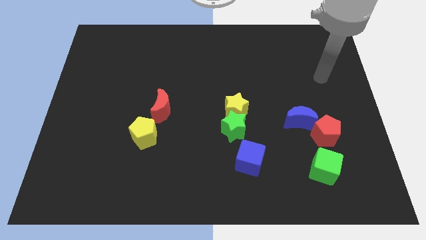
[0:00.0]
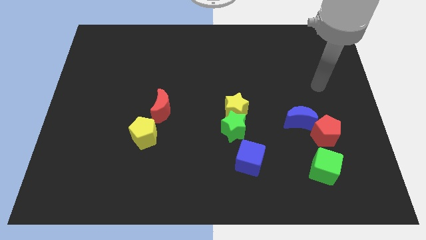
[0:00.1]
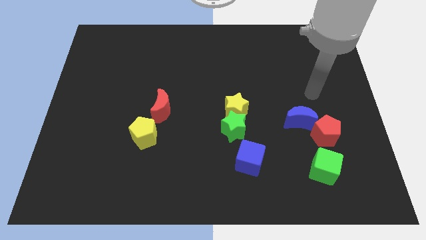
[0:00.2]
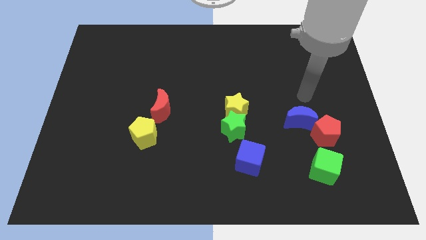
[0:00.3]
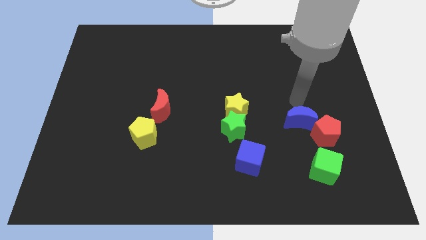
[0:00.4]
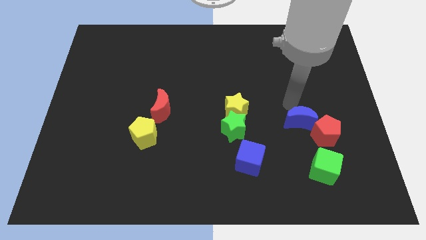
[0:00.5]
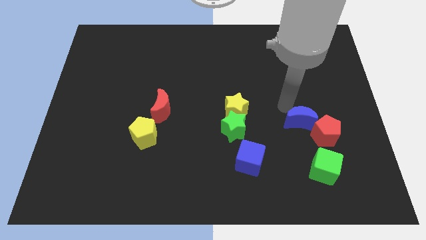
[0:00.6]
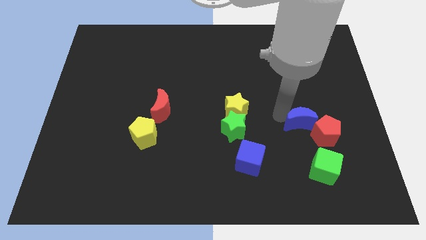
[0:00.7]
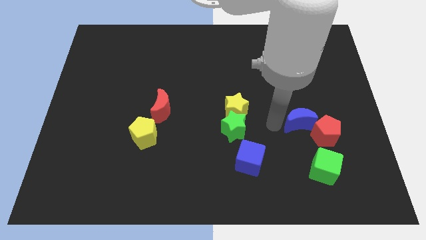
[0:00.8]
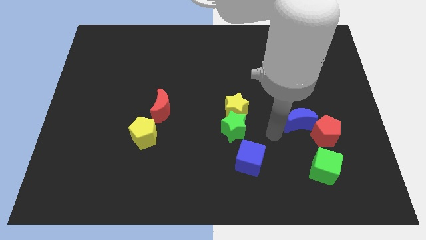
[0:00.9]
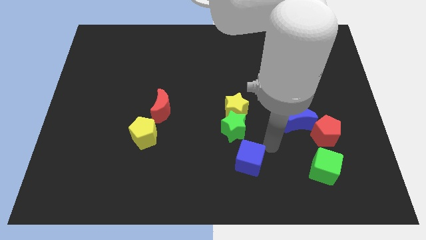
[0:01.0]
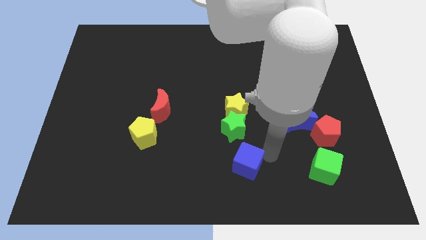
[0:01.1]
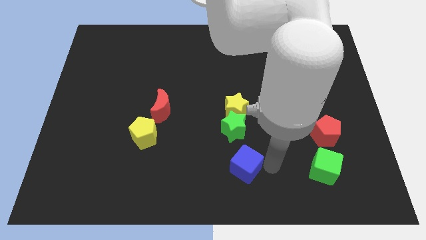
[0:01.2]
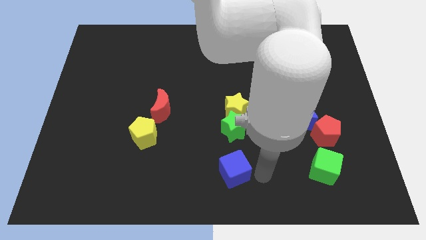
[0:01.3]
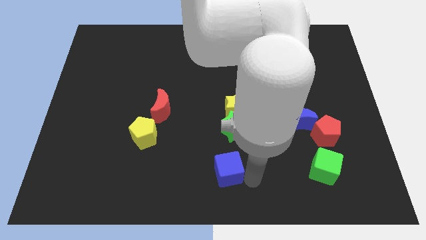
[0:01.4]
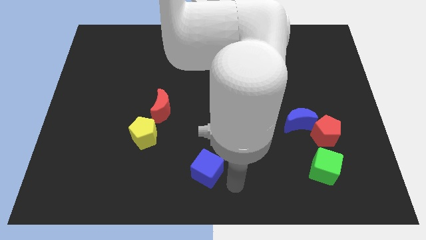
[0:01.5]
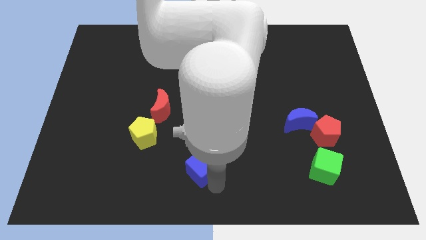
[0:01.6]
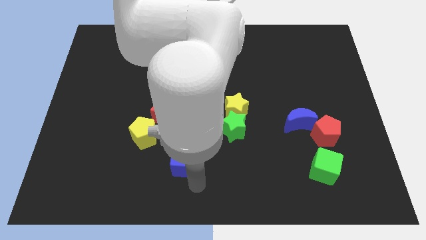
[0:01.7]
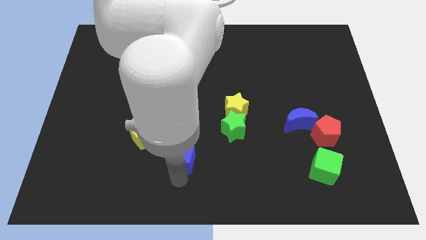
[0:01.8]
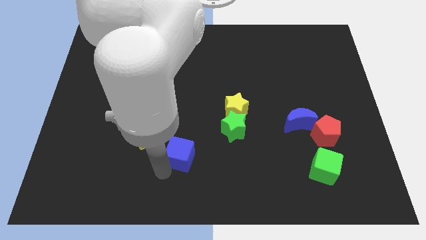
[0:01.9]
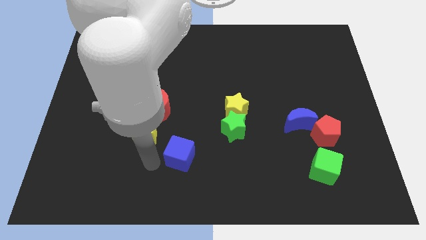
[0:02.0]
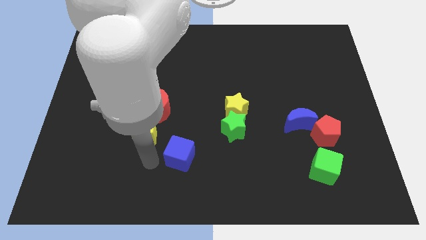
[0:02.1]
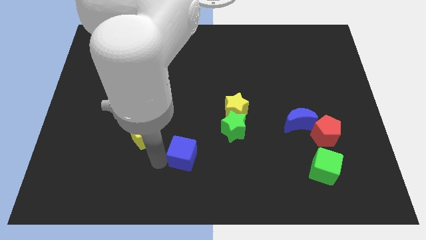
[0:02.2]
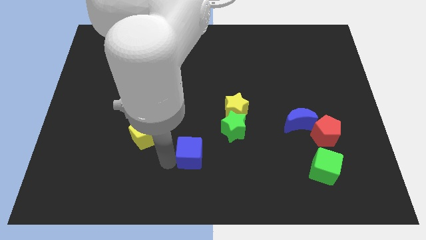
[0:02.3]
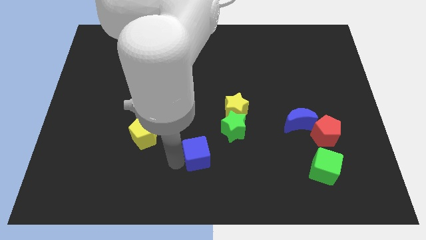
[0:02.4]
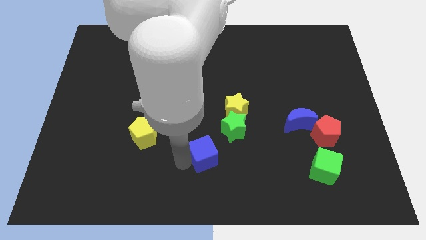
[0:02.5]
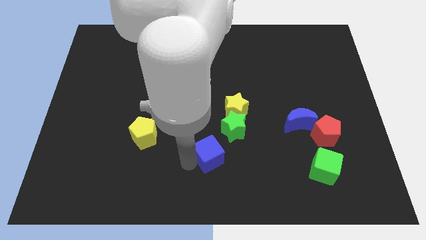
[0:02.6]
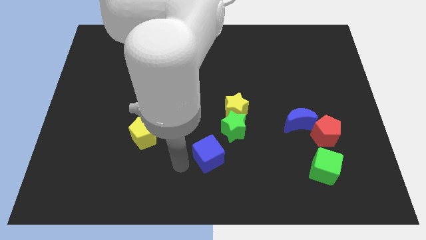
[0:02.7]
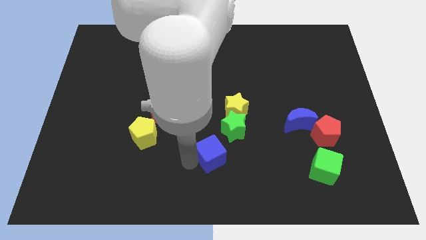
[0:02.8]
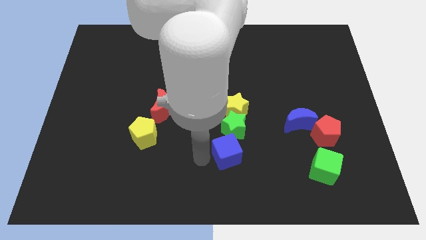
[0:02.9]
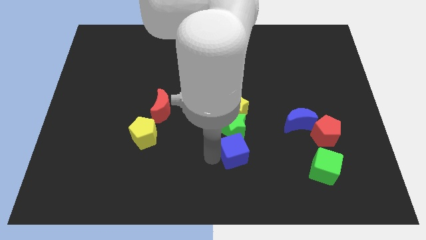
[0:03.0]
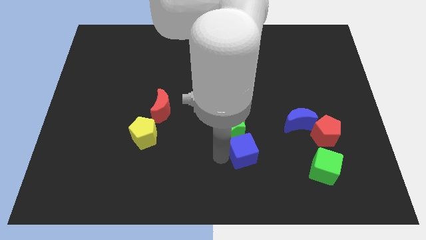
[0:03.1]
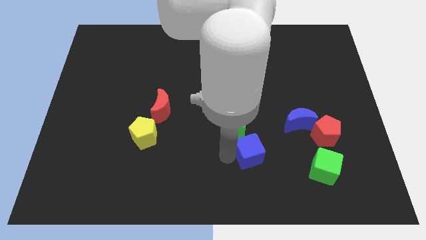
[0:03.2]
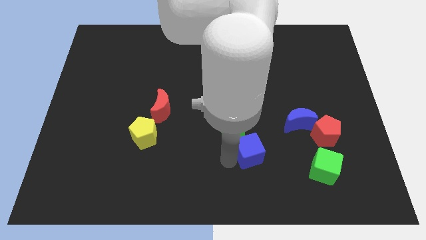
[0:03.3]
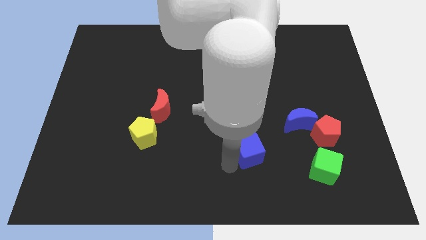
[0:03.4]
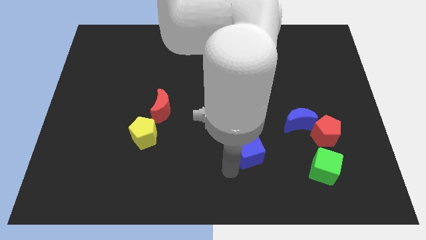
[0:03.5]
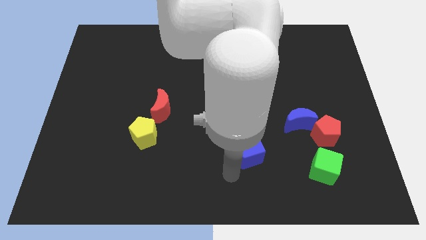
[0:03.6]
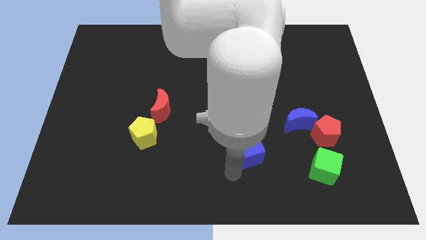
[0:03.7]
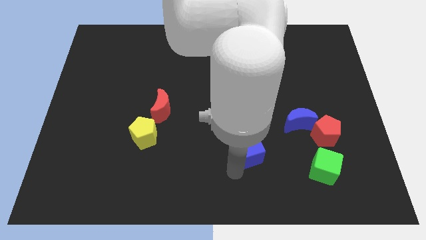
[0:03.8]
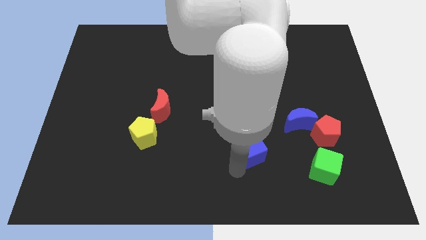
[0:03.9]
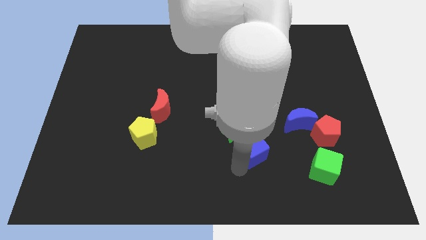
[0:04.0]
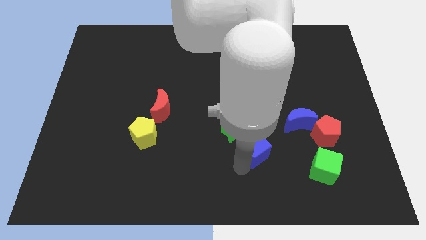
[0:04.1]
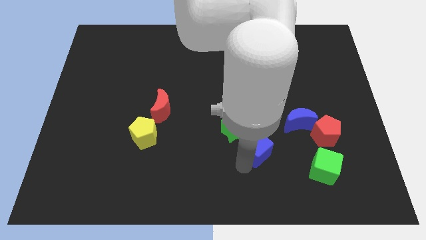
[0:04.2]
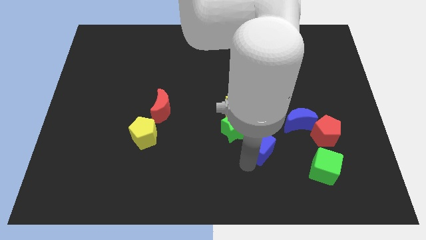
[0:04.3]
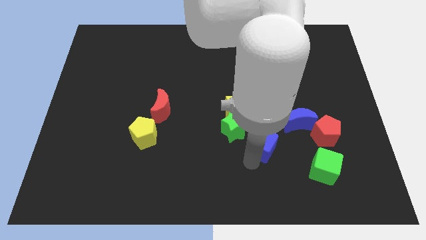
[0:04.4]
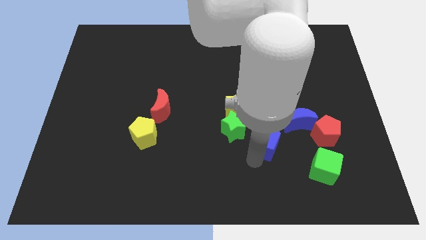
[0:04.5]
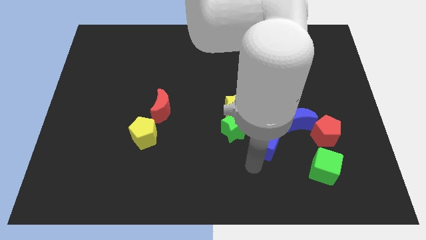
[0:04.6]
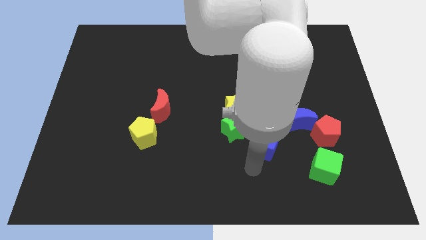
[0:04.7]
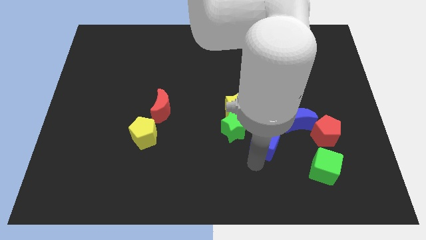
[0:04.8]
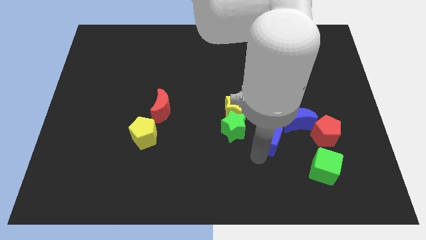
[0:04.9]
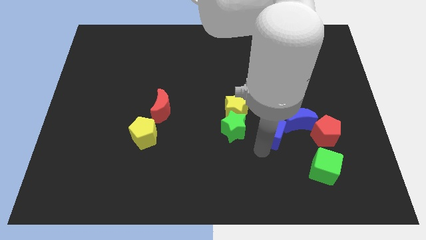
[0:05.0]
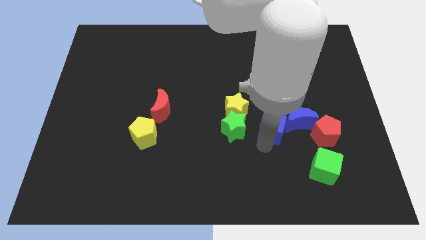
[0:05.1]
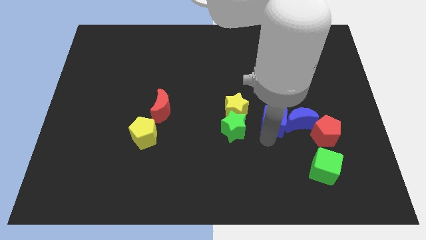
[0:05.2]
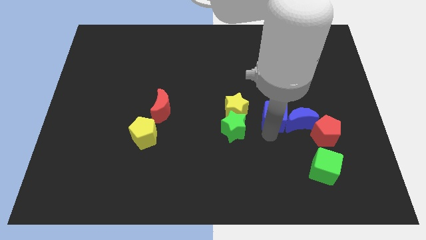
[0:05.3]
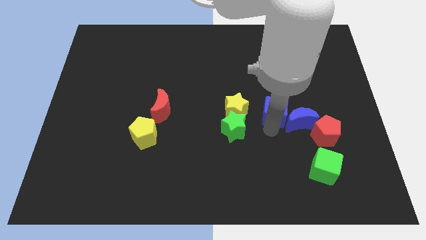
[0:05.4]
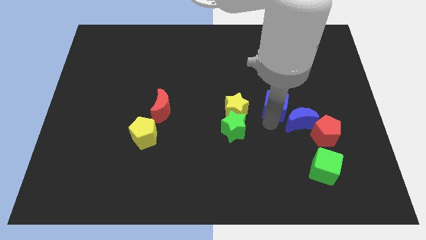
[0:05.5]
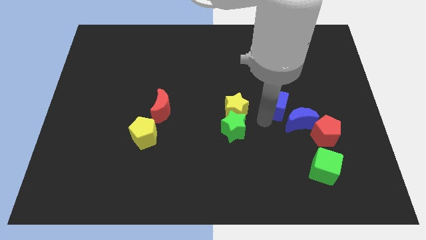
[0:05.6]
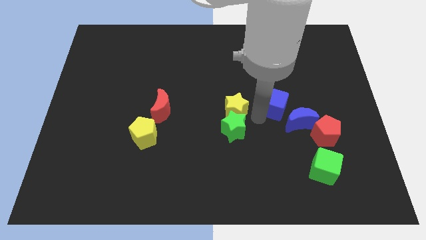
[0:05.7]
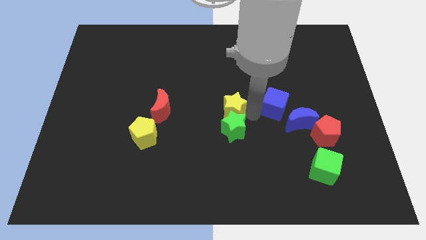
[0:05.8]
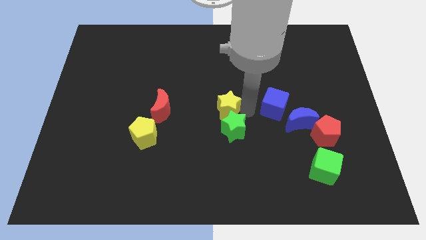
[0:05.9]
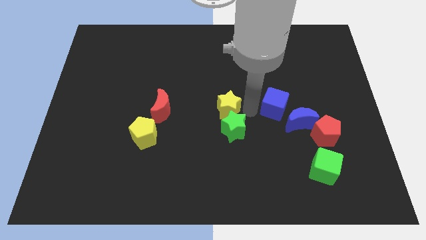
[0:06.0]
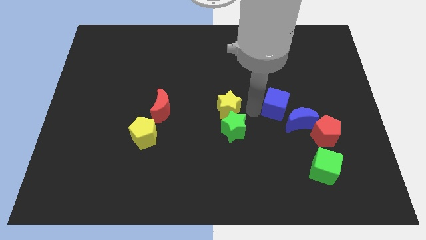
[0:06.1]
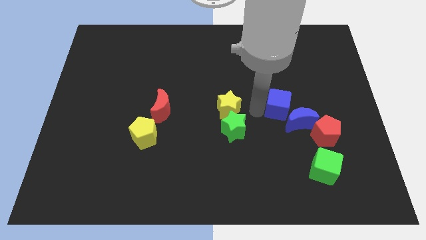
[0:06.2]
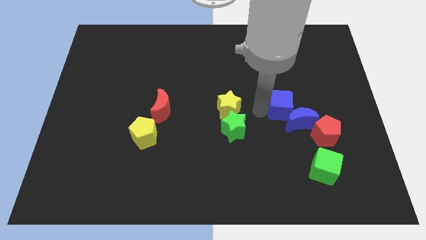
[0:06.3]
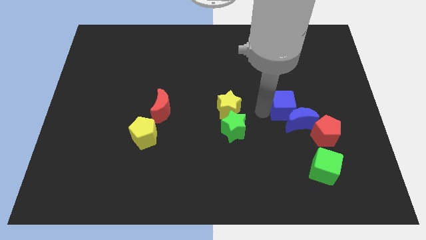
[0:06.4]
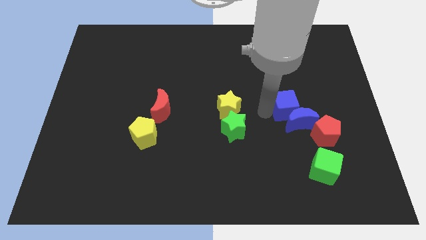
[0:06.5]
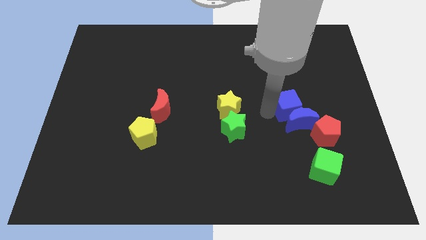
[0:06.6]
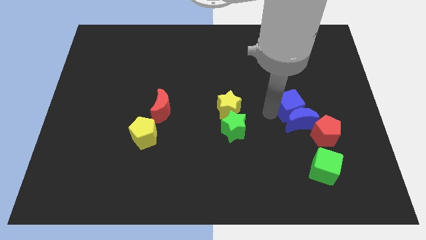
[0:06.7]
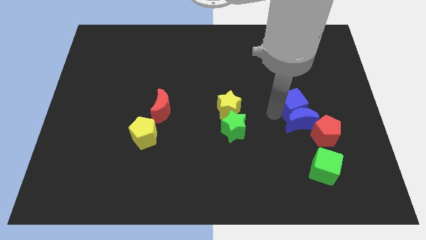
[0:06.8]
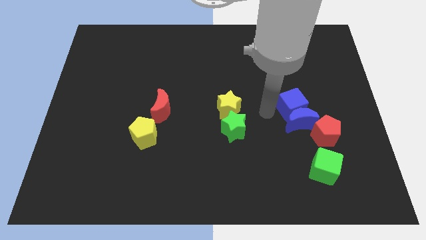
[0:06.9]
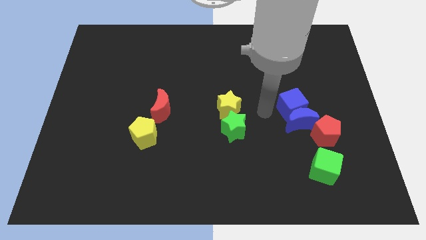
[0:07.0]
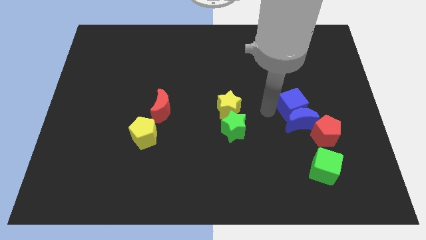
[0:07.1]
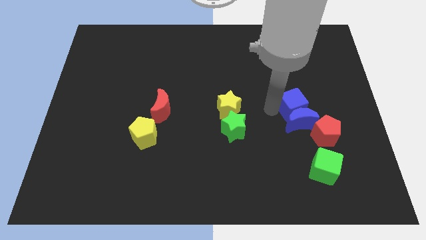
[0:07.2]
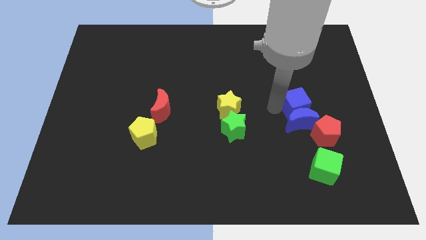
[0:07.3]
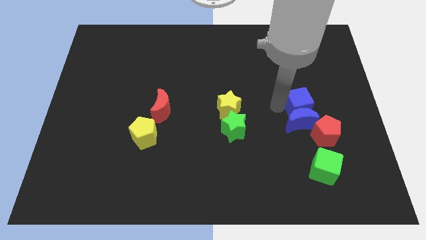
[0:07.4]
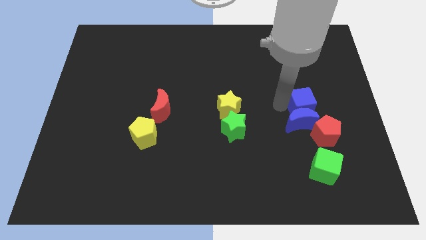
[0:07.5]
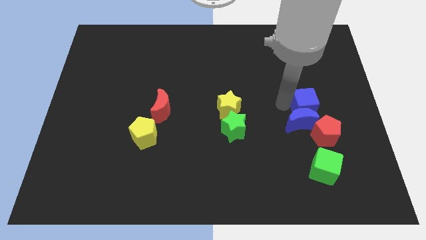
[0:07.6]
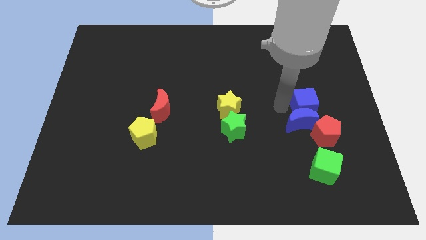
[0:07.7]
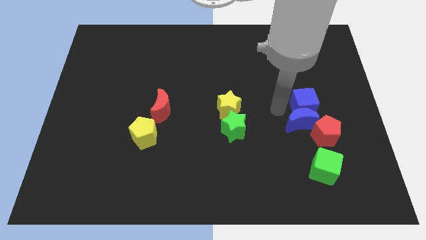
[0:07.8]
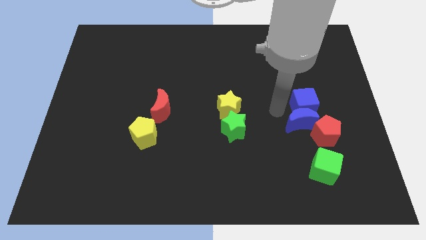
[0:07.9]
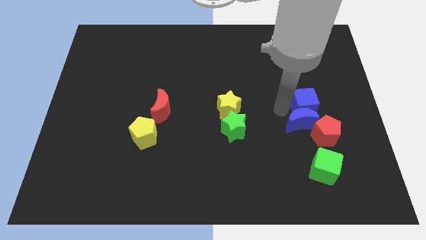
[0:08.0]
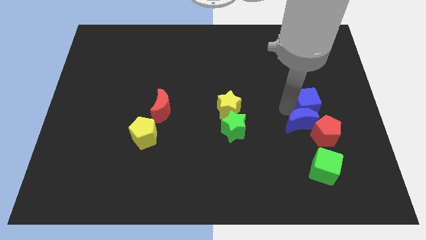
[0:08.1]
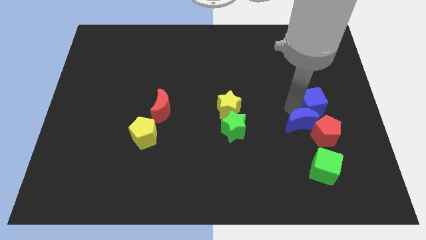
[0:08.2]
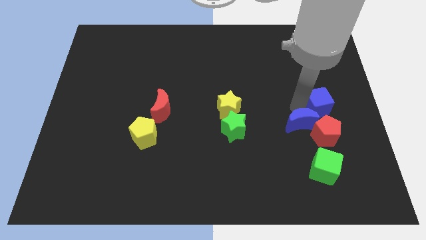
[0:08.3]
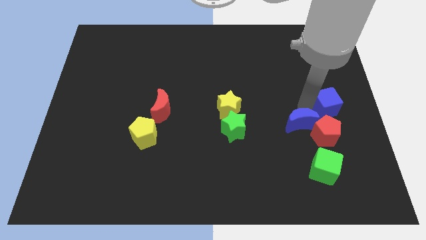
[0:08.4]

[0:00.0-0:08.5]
push the blue cube to the right side
